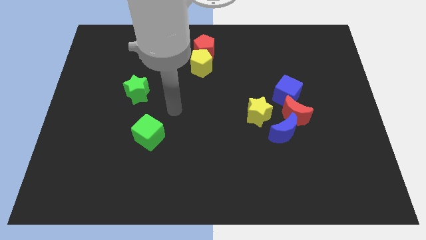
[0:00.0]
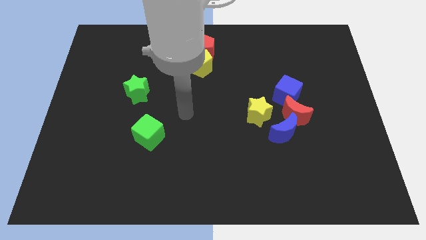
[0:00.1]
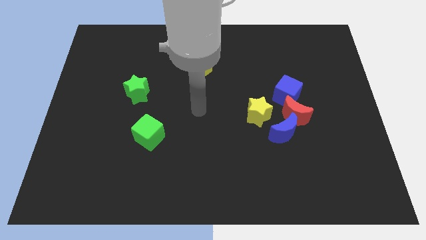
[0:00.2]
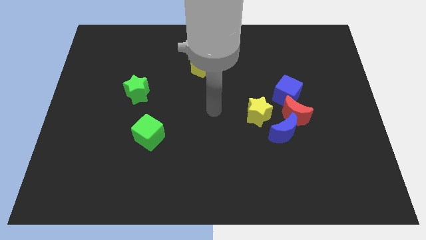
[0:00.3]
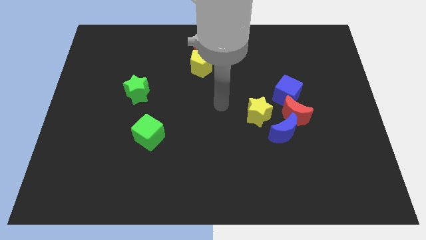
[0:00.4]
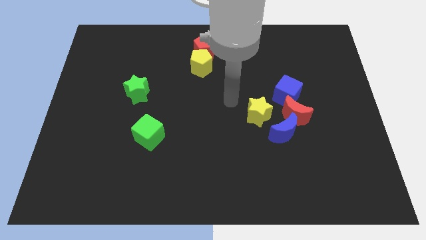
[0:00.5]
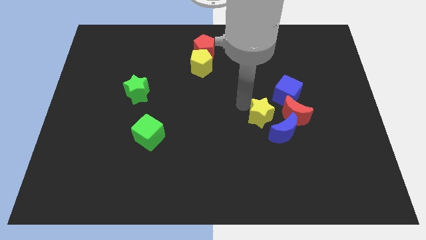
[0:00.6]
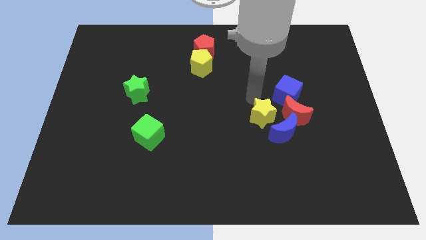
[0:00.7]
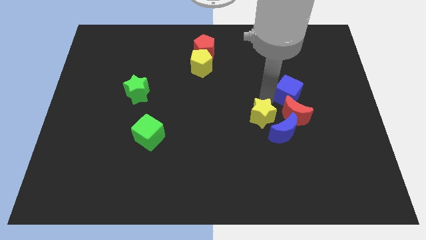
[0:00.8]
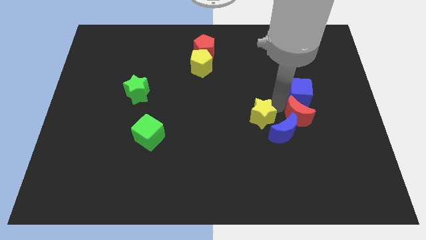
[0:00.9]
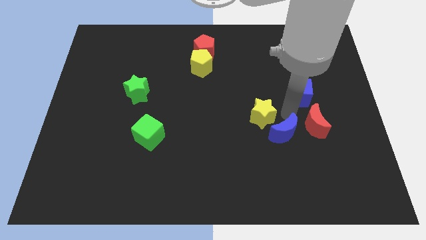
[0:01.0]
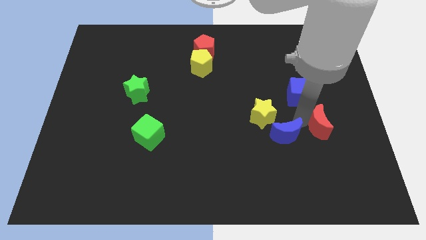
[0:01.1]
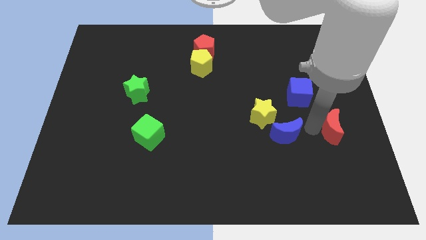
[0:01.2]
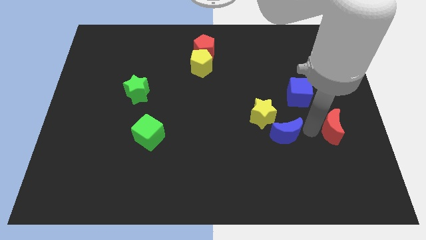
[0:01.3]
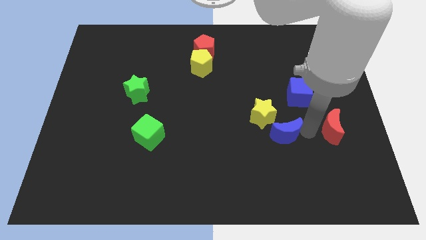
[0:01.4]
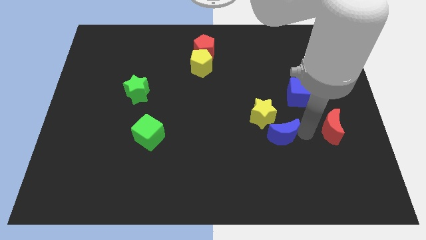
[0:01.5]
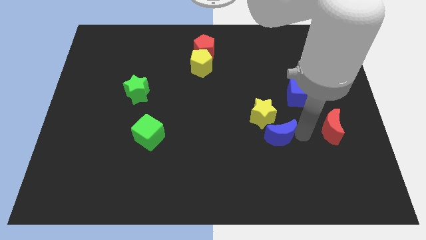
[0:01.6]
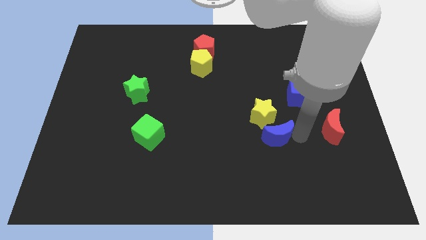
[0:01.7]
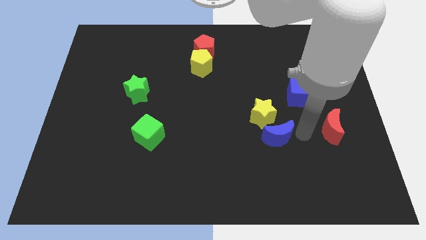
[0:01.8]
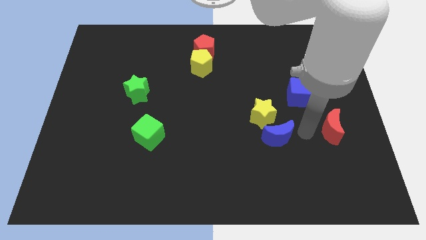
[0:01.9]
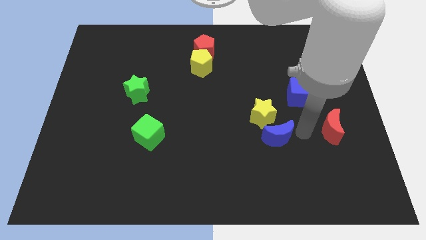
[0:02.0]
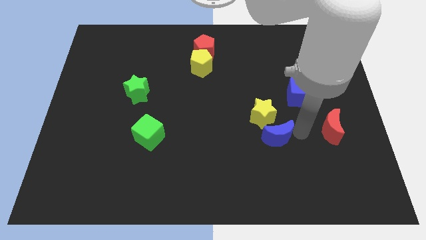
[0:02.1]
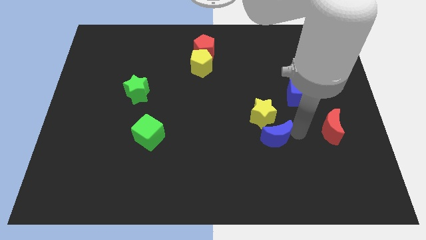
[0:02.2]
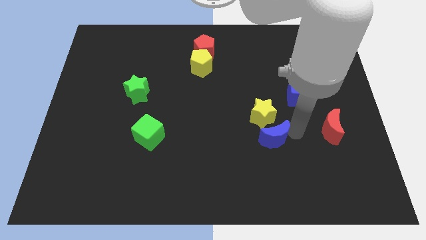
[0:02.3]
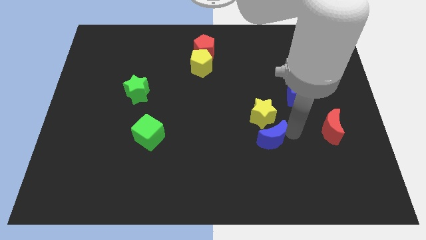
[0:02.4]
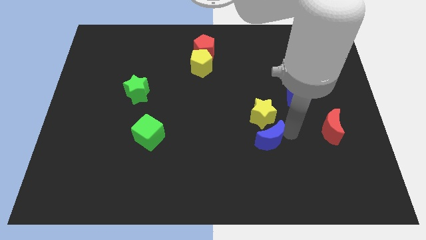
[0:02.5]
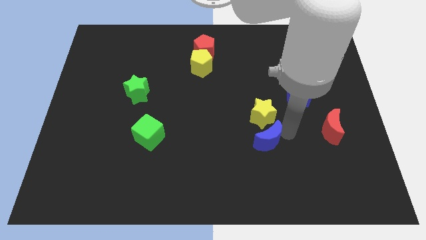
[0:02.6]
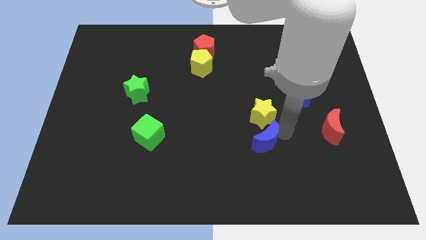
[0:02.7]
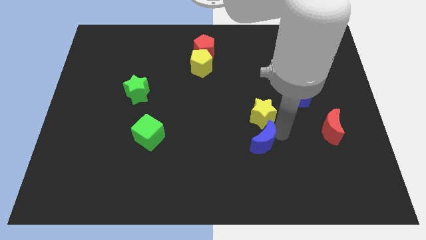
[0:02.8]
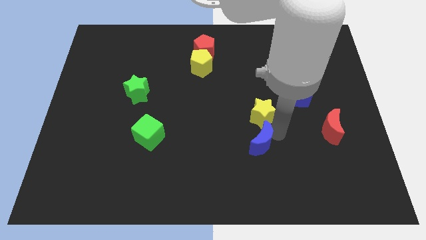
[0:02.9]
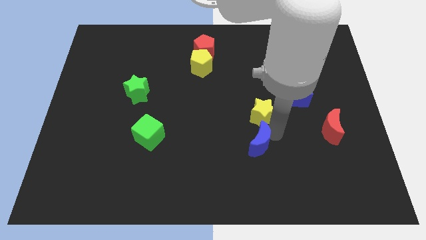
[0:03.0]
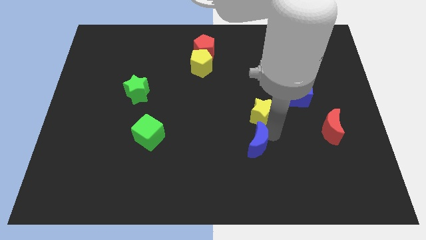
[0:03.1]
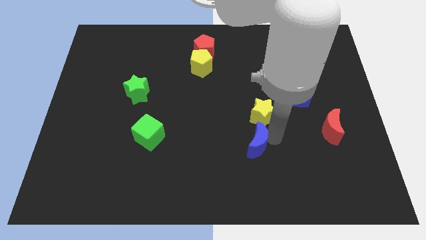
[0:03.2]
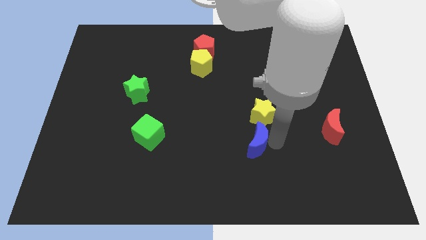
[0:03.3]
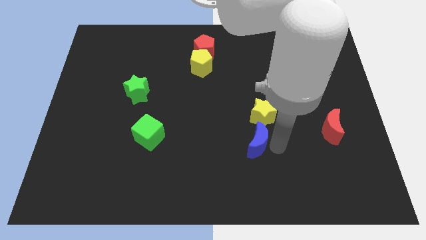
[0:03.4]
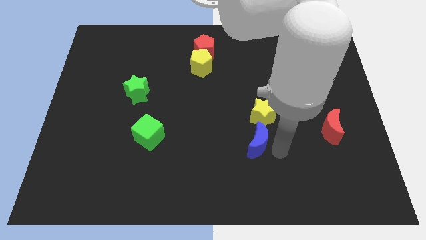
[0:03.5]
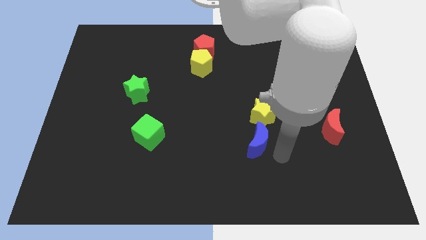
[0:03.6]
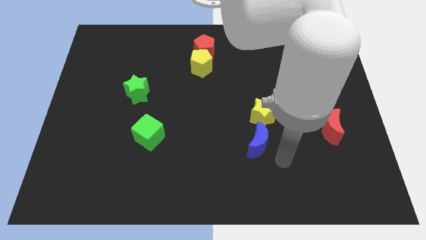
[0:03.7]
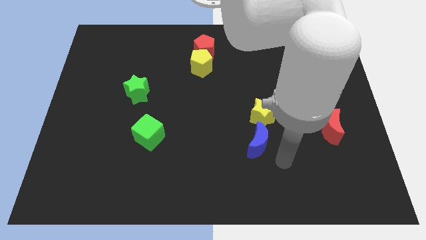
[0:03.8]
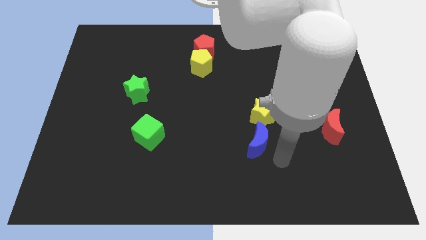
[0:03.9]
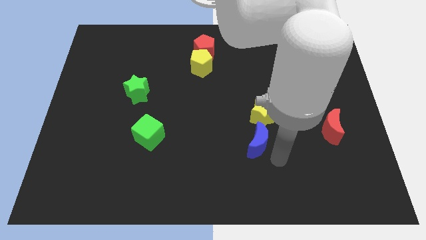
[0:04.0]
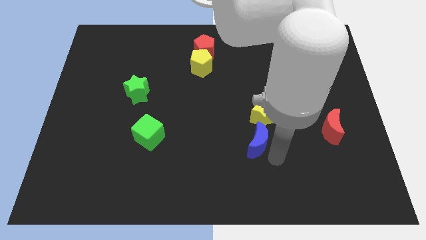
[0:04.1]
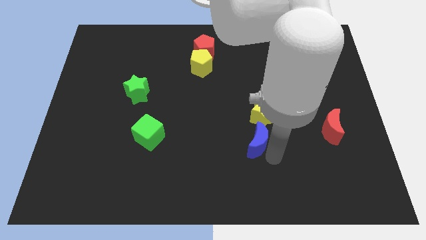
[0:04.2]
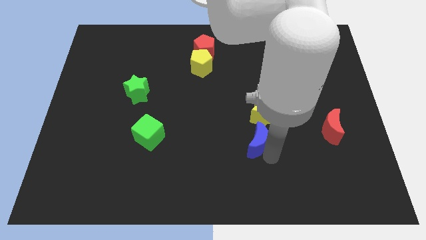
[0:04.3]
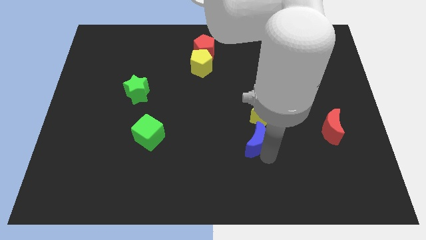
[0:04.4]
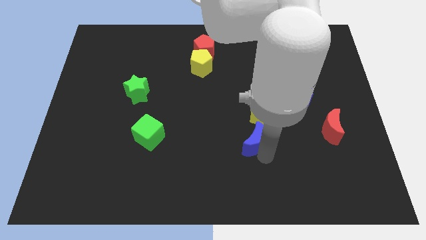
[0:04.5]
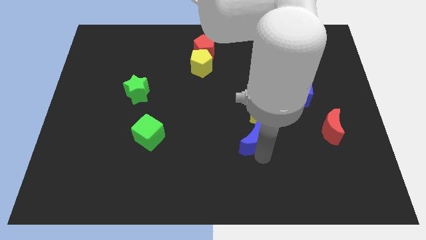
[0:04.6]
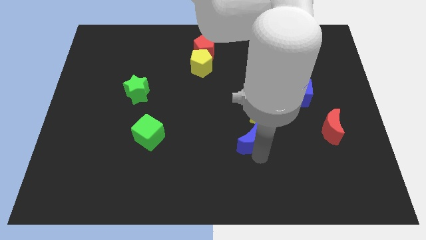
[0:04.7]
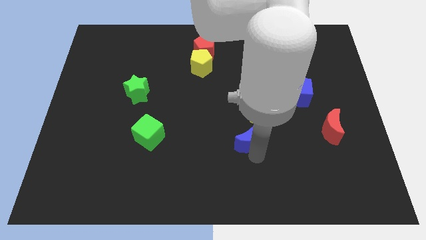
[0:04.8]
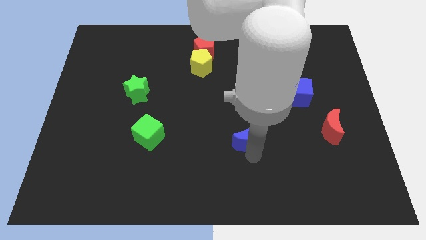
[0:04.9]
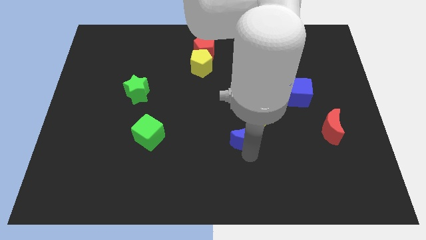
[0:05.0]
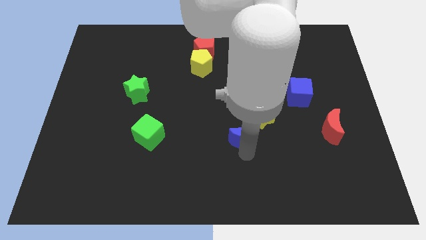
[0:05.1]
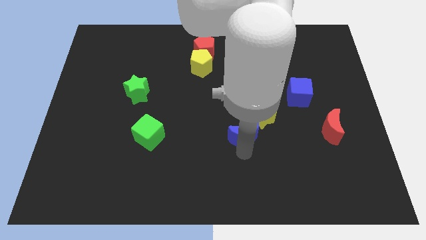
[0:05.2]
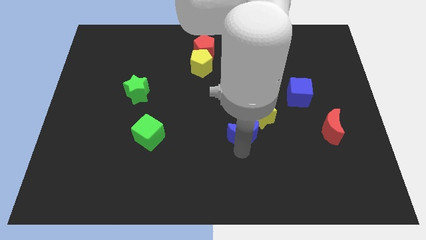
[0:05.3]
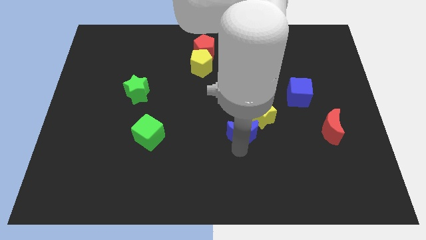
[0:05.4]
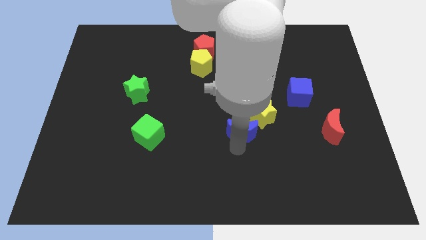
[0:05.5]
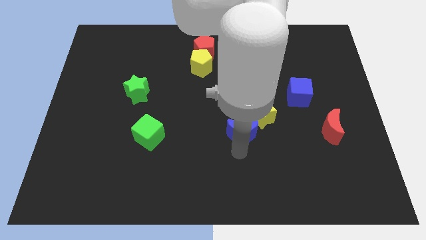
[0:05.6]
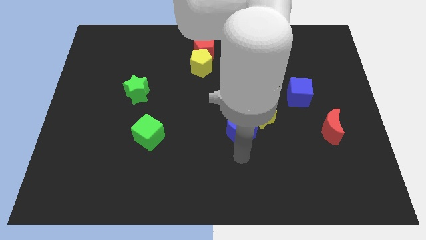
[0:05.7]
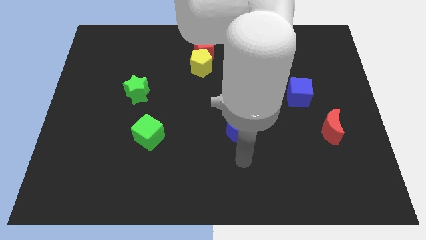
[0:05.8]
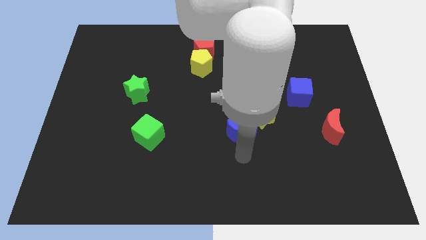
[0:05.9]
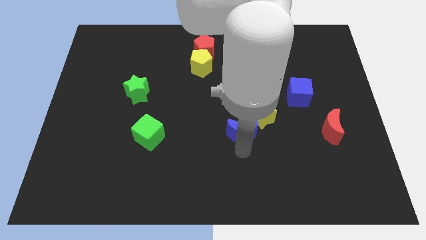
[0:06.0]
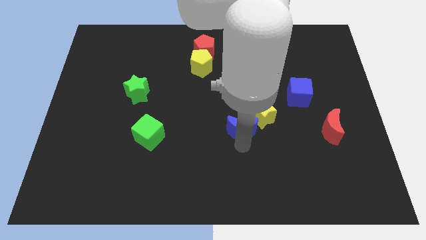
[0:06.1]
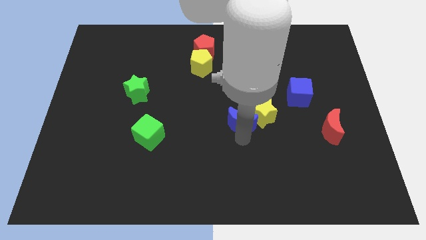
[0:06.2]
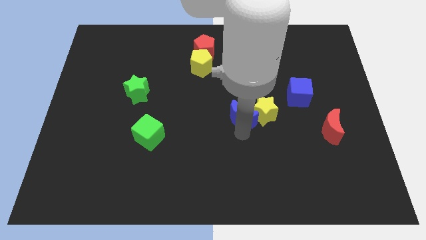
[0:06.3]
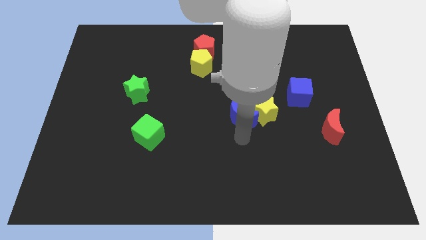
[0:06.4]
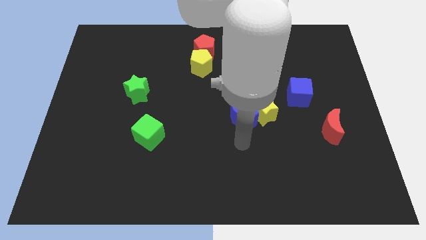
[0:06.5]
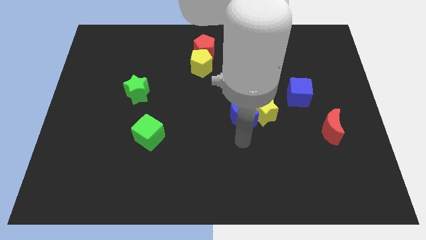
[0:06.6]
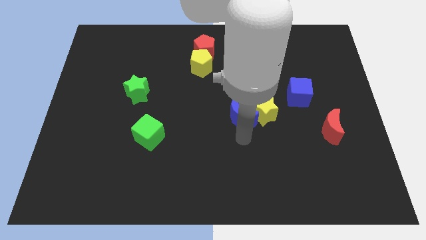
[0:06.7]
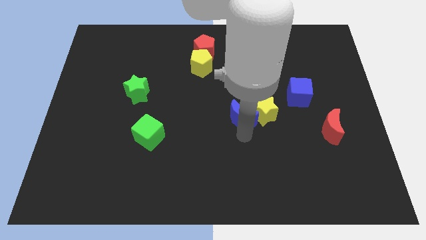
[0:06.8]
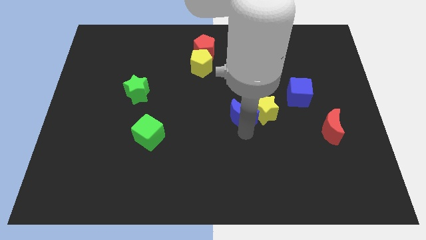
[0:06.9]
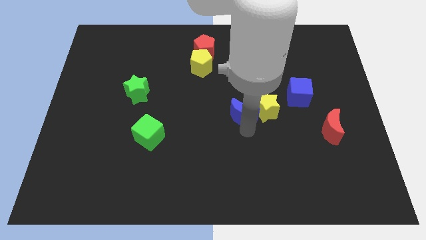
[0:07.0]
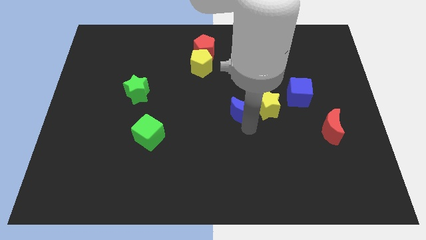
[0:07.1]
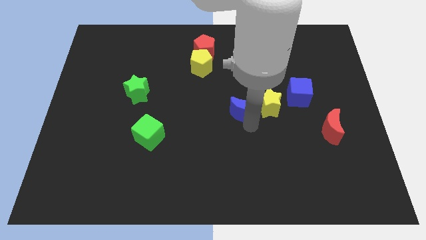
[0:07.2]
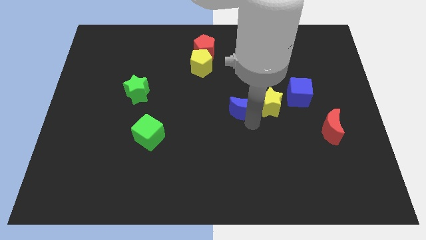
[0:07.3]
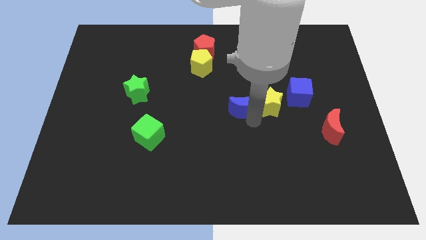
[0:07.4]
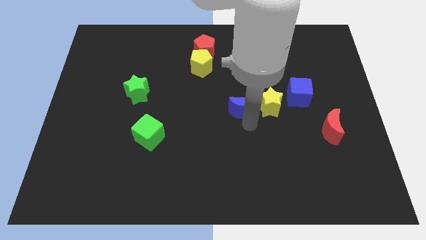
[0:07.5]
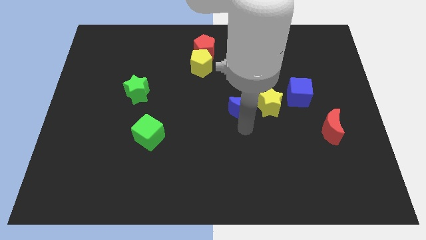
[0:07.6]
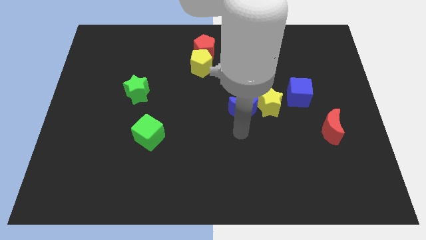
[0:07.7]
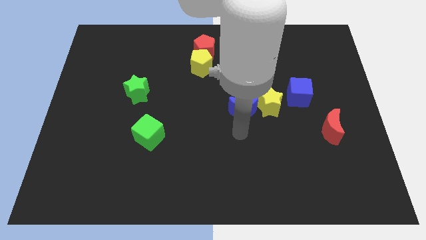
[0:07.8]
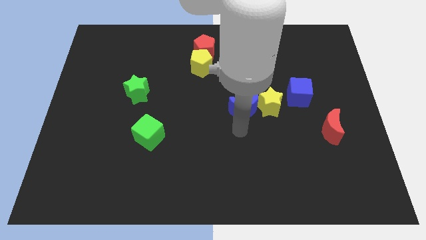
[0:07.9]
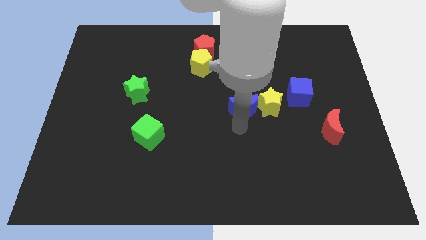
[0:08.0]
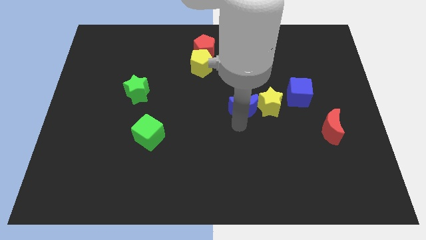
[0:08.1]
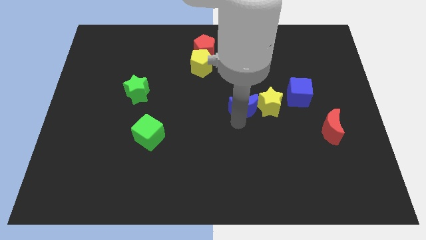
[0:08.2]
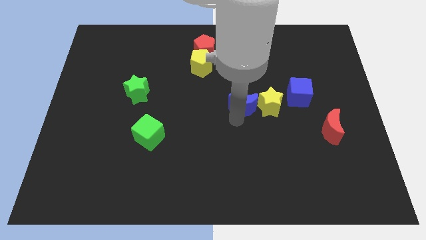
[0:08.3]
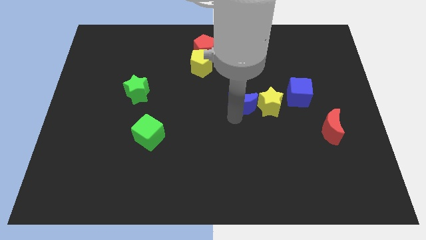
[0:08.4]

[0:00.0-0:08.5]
slide the blue moon diagonally up and to the left of the yellow star
